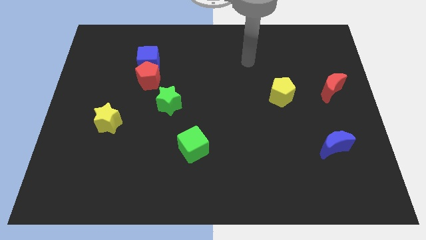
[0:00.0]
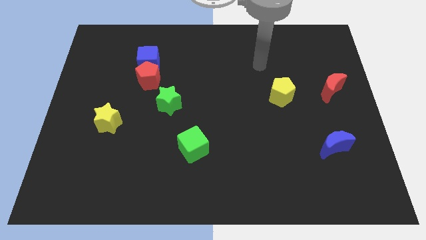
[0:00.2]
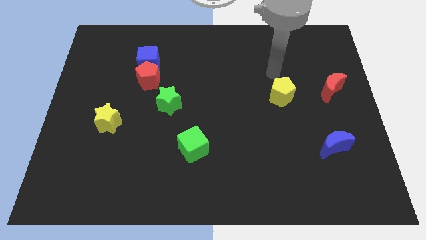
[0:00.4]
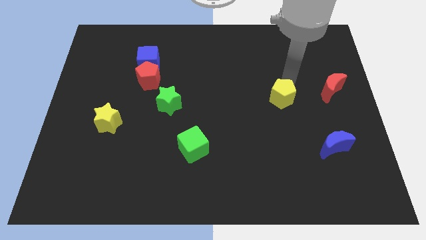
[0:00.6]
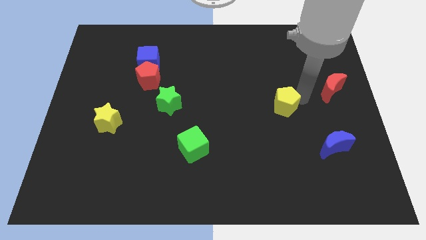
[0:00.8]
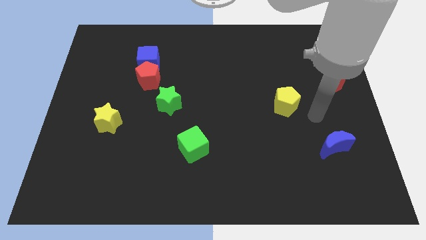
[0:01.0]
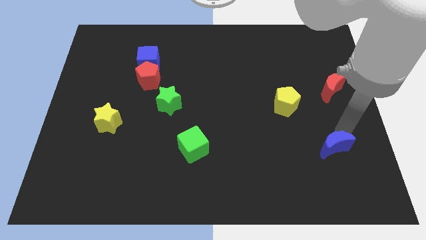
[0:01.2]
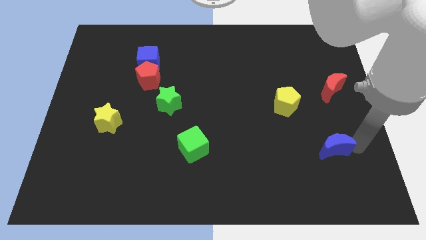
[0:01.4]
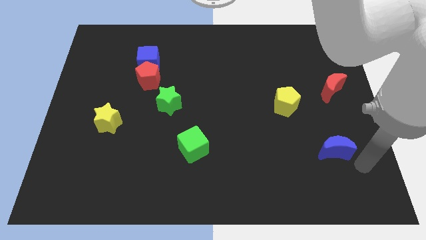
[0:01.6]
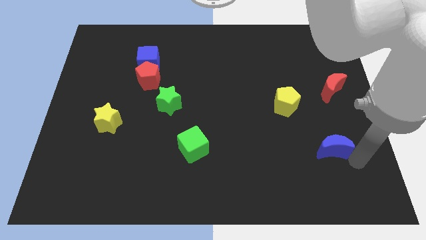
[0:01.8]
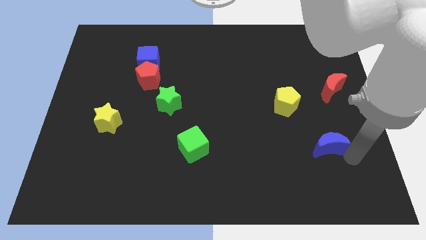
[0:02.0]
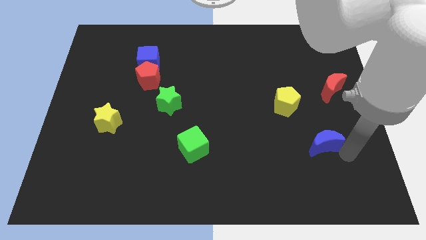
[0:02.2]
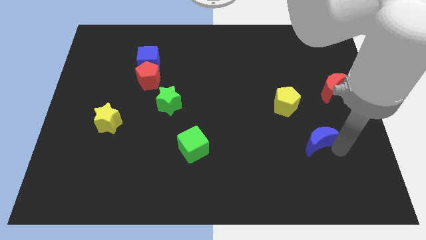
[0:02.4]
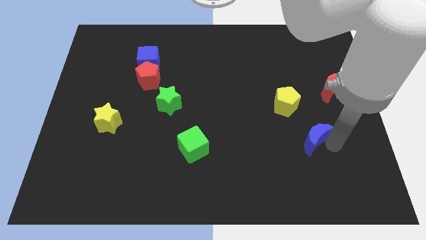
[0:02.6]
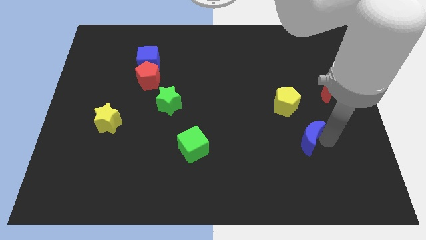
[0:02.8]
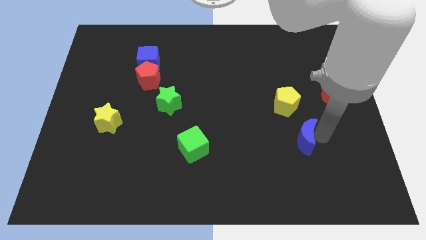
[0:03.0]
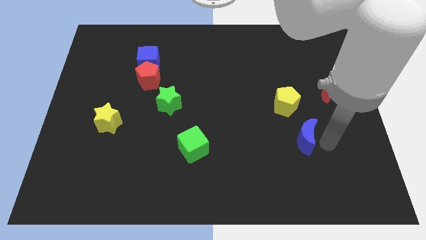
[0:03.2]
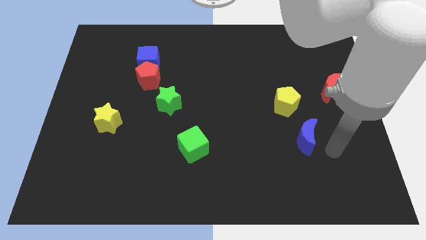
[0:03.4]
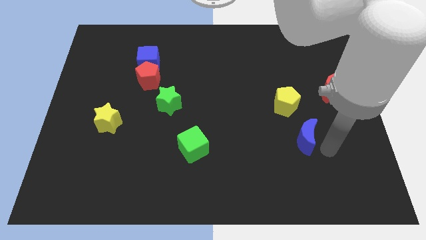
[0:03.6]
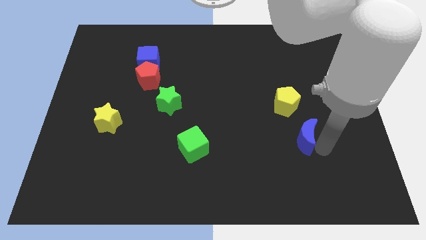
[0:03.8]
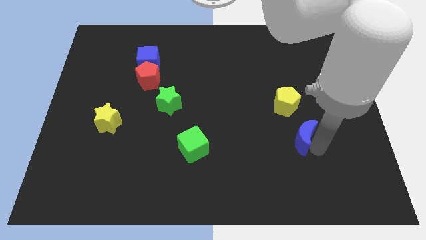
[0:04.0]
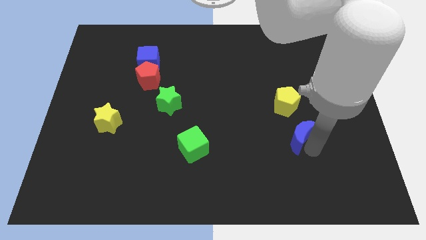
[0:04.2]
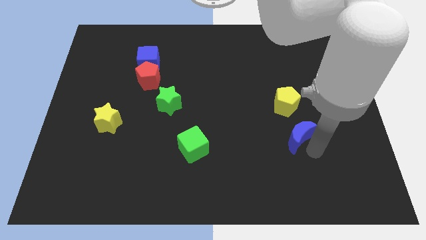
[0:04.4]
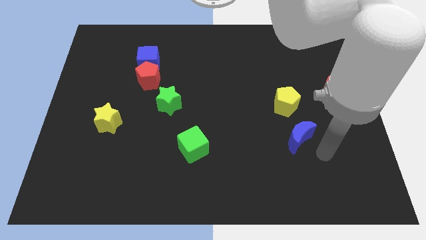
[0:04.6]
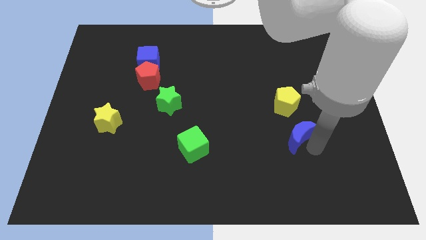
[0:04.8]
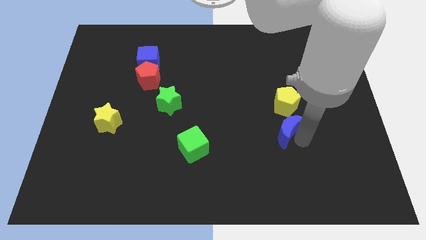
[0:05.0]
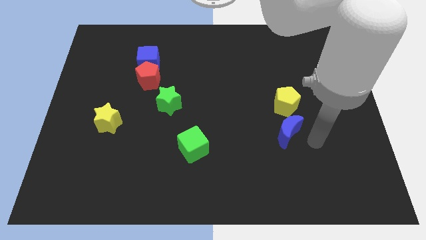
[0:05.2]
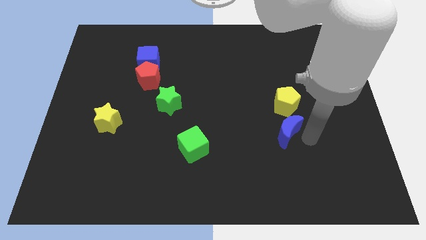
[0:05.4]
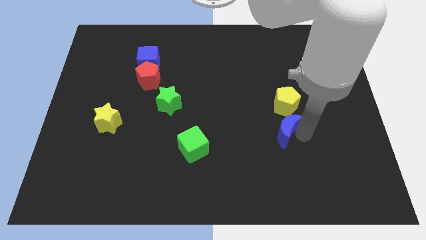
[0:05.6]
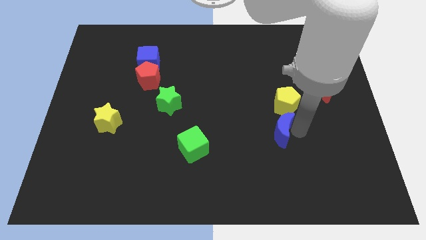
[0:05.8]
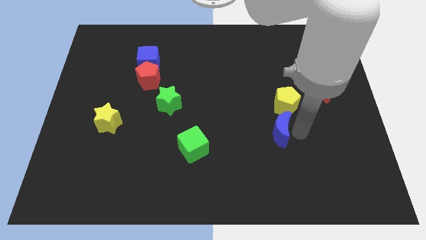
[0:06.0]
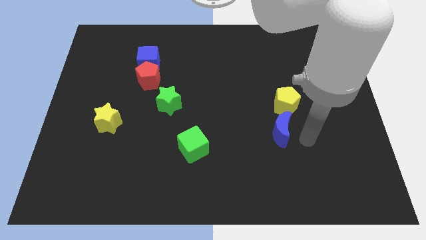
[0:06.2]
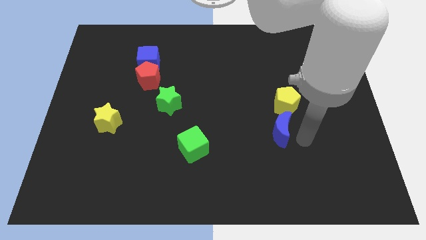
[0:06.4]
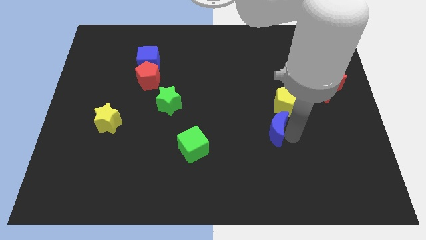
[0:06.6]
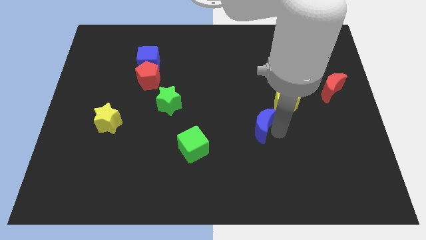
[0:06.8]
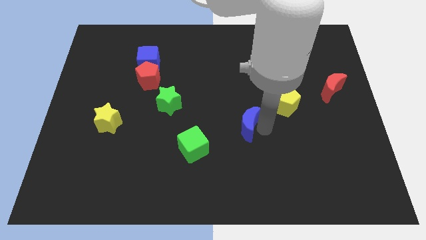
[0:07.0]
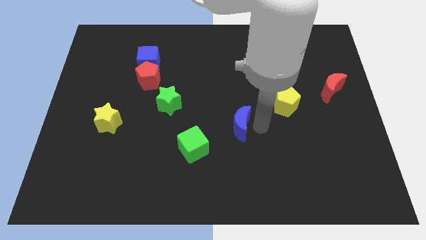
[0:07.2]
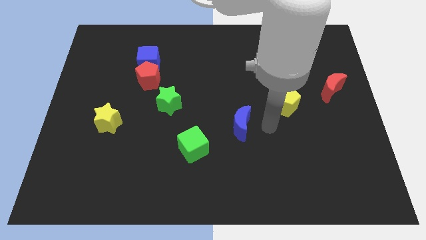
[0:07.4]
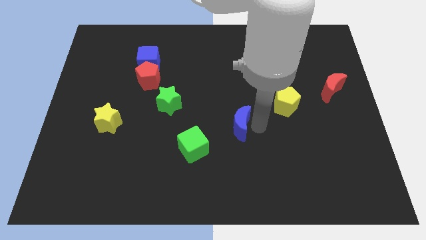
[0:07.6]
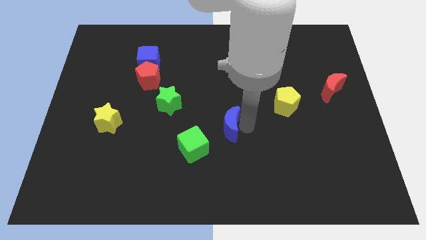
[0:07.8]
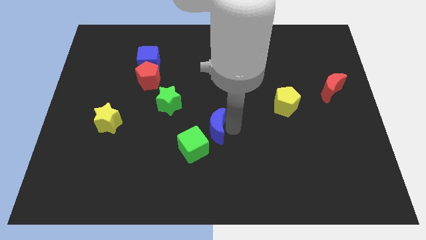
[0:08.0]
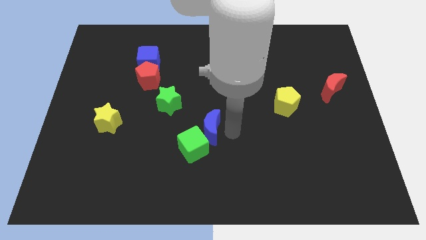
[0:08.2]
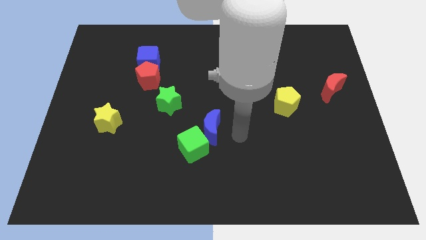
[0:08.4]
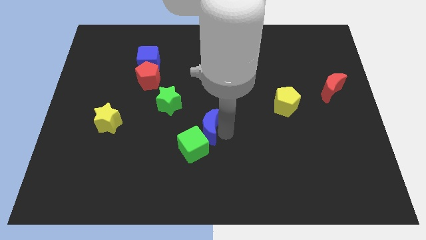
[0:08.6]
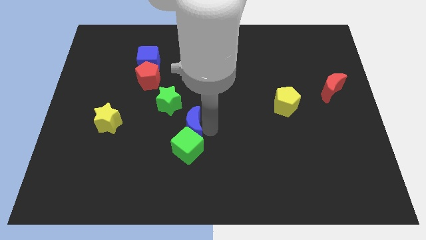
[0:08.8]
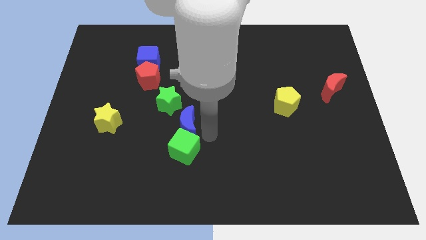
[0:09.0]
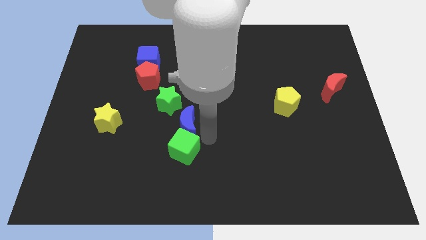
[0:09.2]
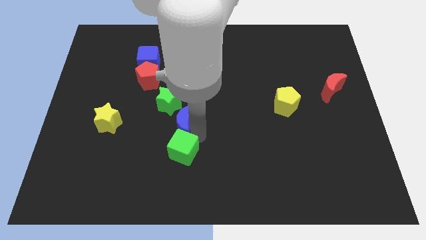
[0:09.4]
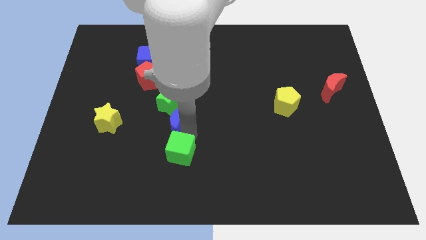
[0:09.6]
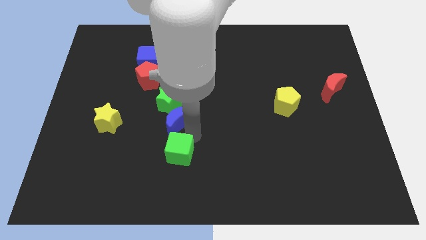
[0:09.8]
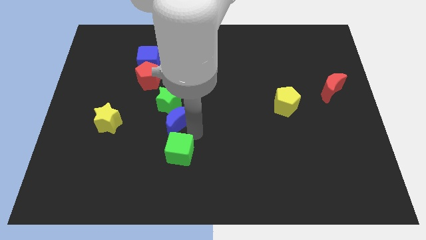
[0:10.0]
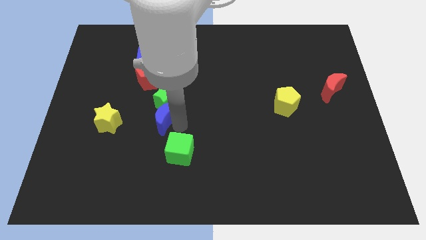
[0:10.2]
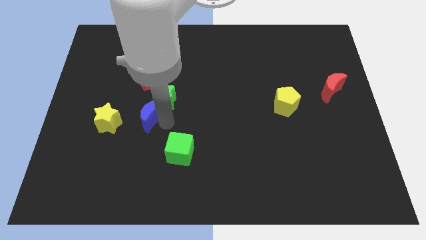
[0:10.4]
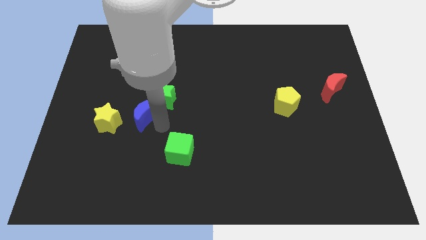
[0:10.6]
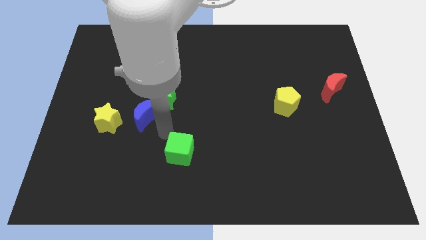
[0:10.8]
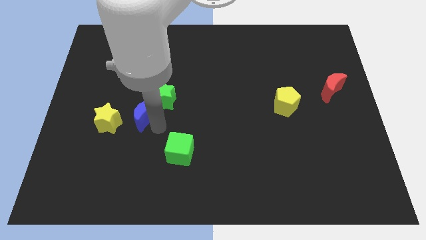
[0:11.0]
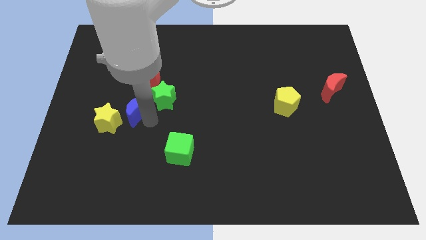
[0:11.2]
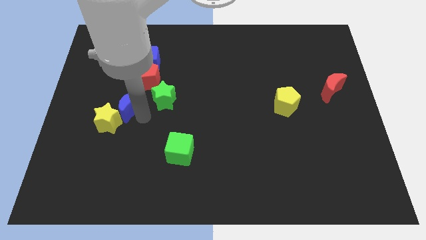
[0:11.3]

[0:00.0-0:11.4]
put the blue moon to the top side of the yellow star

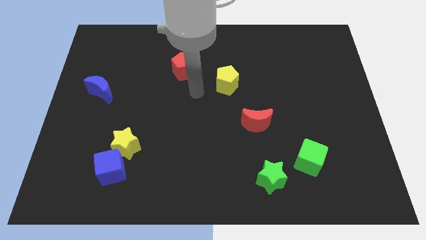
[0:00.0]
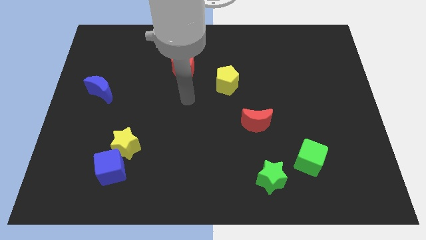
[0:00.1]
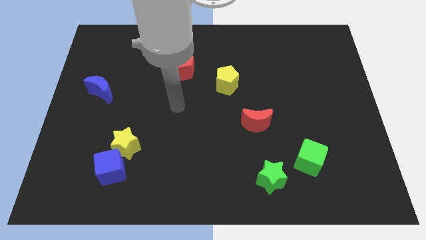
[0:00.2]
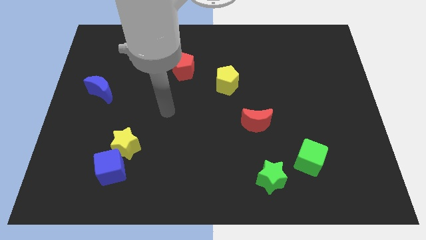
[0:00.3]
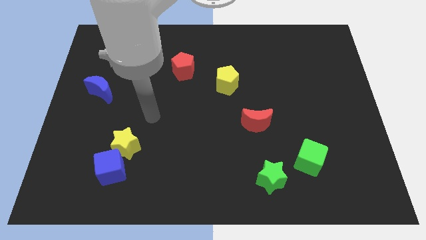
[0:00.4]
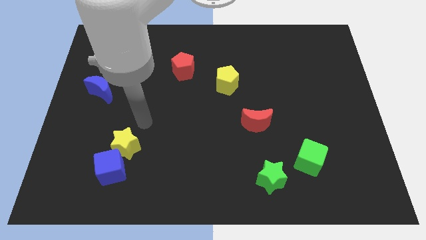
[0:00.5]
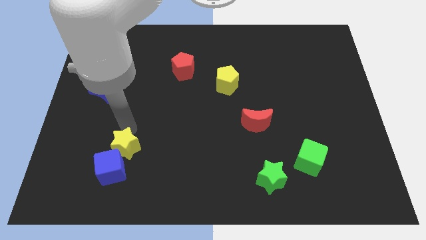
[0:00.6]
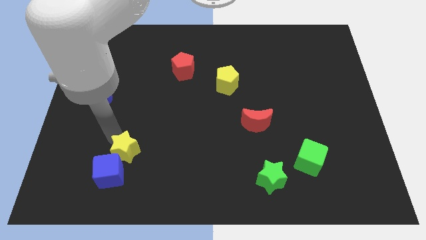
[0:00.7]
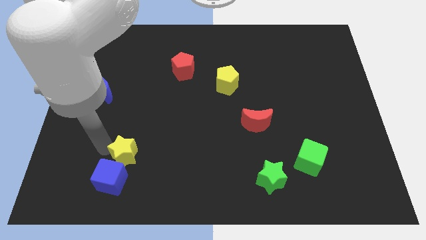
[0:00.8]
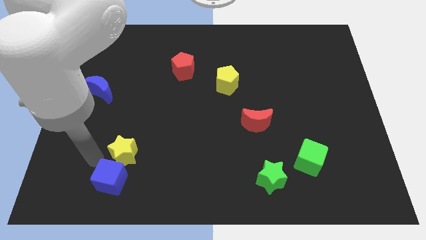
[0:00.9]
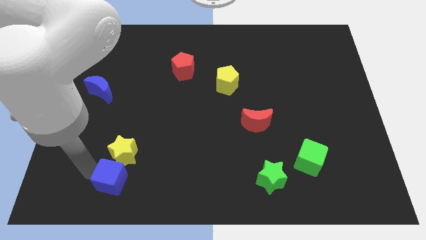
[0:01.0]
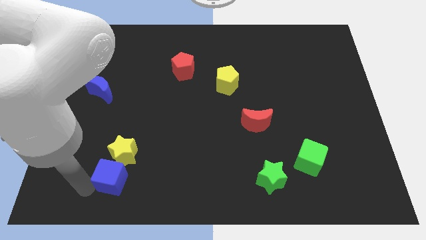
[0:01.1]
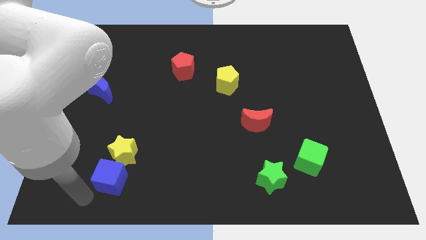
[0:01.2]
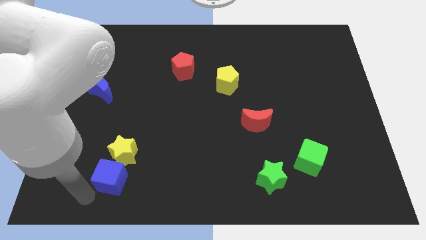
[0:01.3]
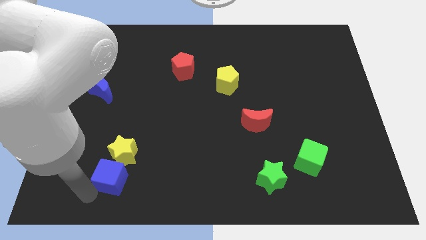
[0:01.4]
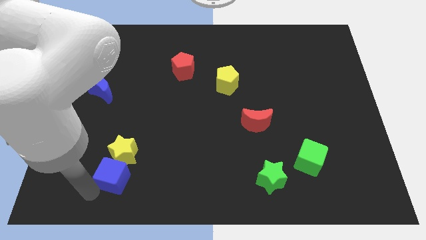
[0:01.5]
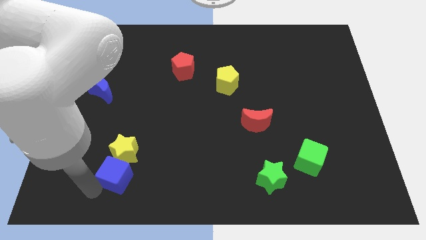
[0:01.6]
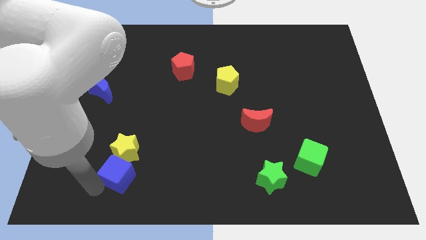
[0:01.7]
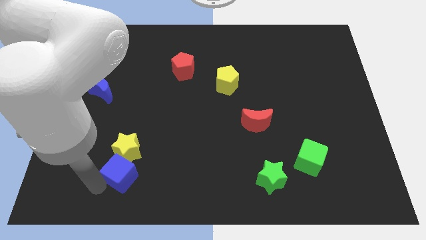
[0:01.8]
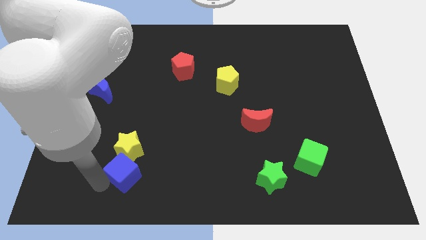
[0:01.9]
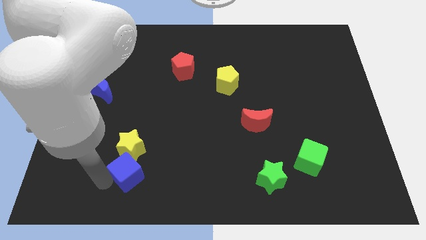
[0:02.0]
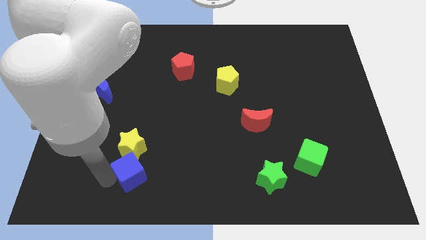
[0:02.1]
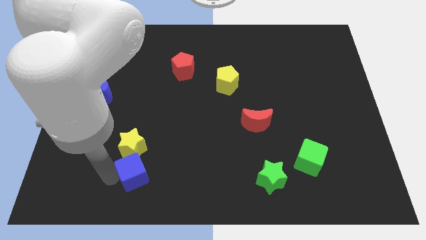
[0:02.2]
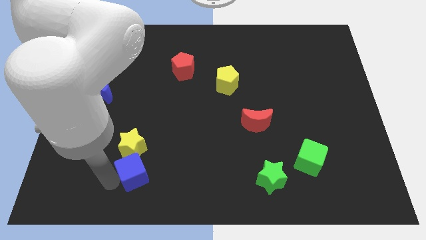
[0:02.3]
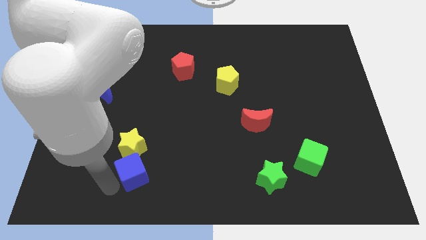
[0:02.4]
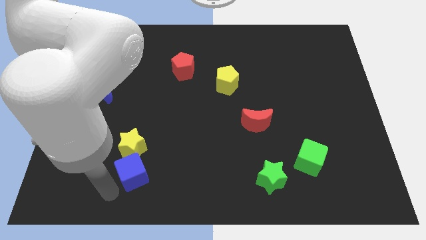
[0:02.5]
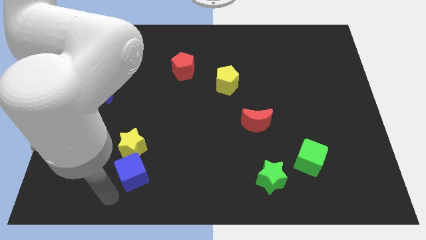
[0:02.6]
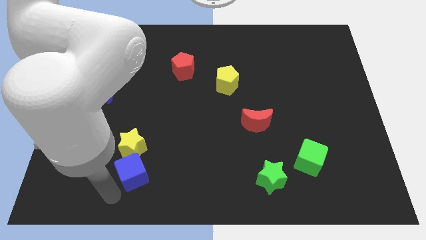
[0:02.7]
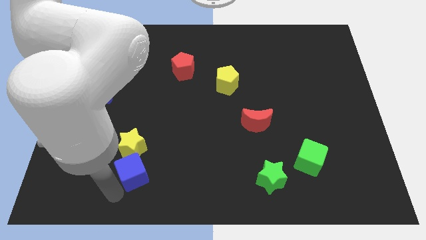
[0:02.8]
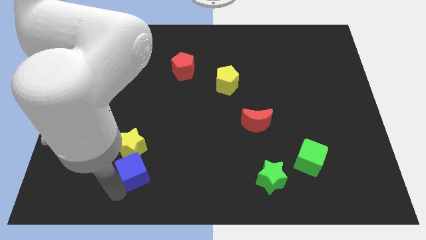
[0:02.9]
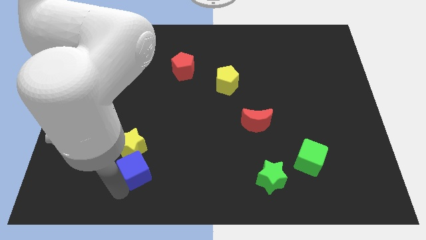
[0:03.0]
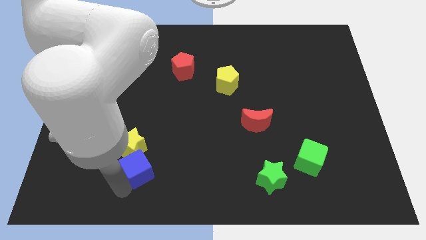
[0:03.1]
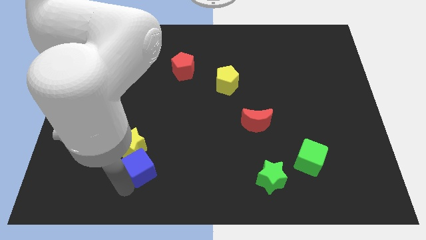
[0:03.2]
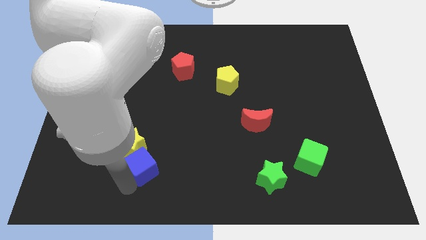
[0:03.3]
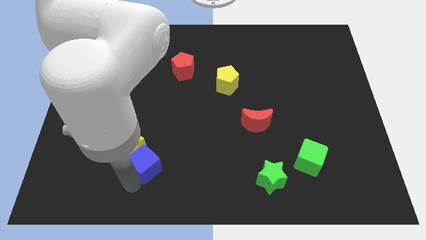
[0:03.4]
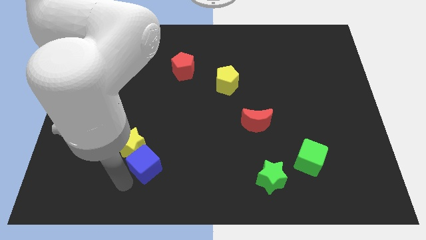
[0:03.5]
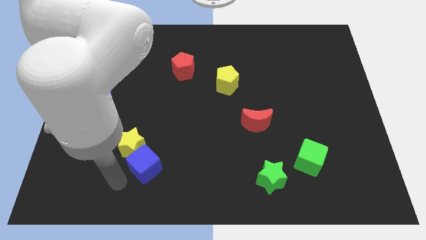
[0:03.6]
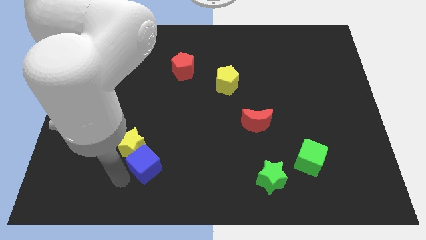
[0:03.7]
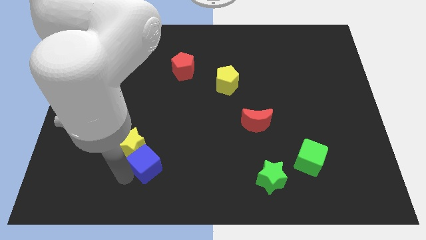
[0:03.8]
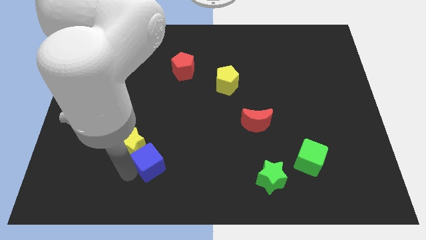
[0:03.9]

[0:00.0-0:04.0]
put the blue cube just right of the yellow star
